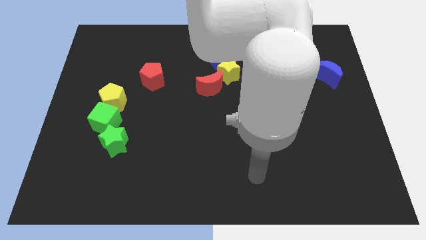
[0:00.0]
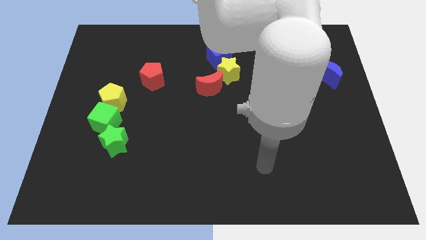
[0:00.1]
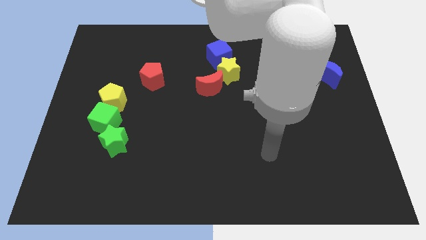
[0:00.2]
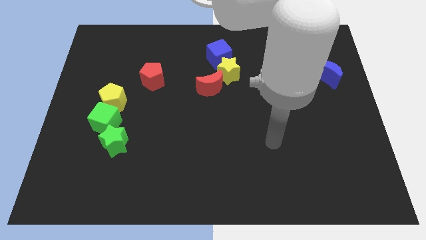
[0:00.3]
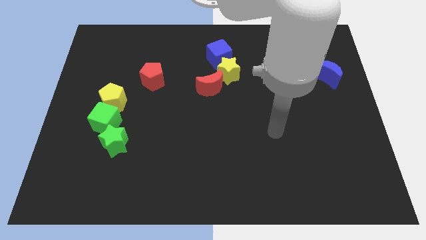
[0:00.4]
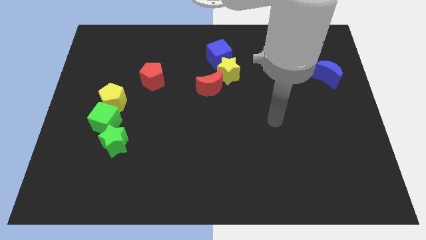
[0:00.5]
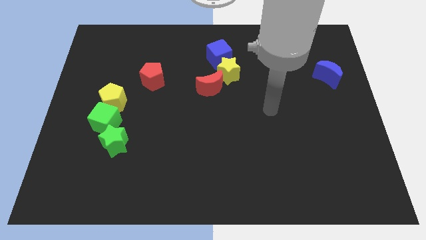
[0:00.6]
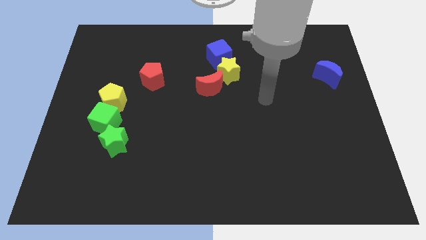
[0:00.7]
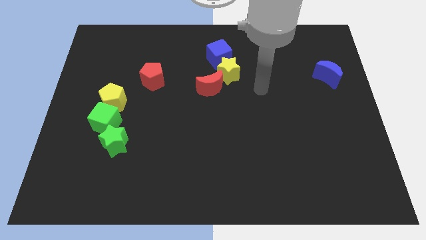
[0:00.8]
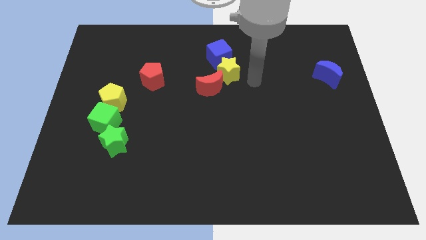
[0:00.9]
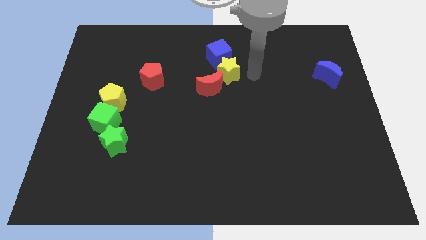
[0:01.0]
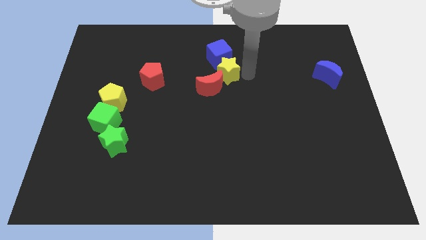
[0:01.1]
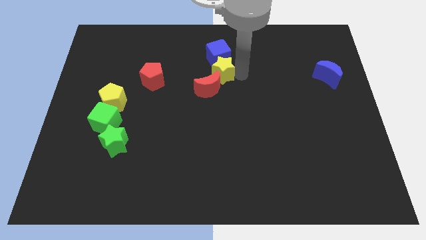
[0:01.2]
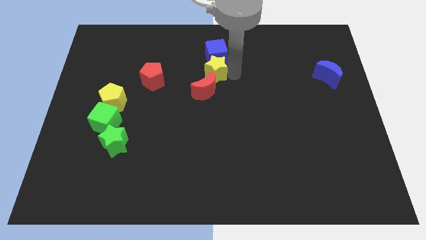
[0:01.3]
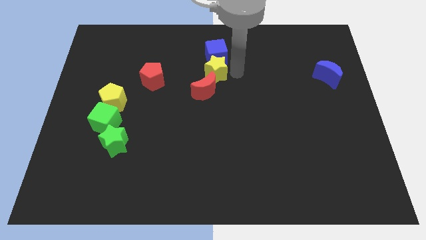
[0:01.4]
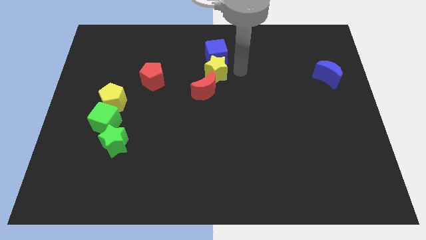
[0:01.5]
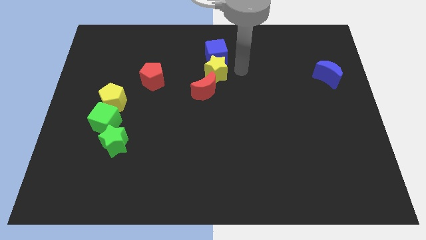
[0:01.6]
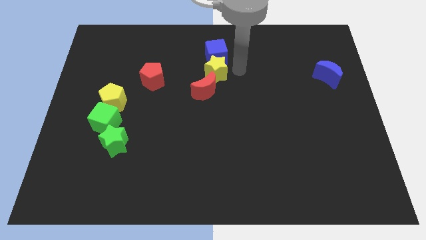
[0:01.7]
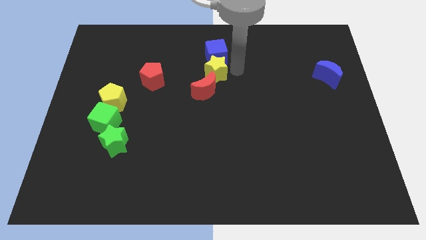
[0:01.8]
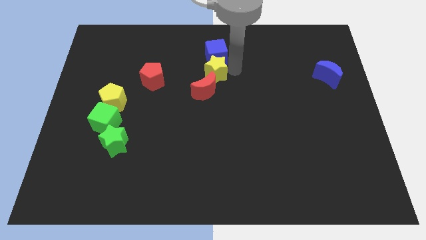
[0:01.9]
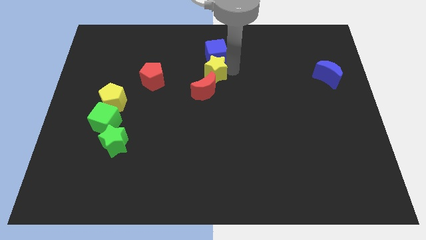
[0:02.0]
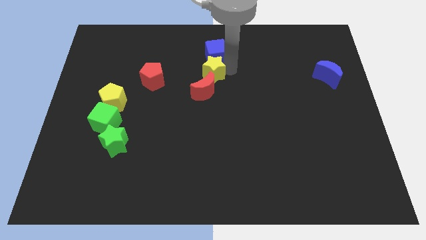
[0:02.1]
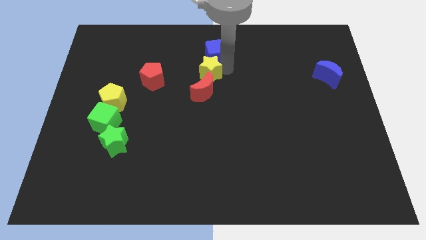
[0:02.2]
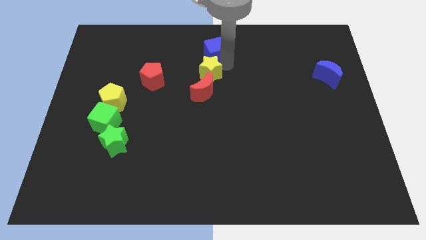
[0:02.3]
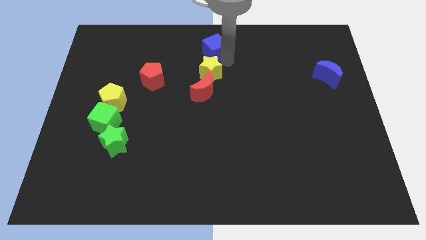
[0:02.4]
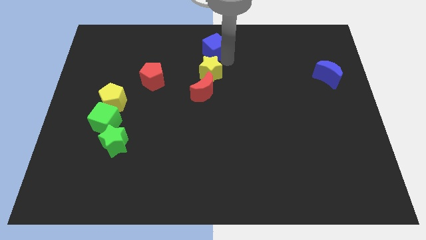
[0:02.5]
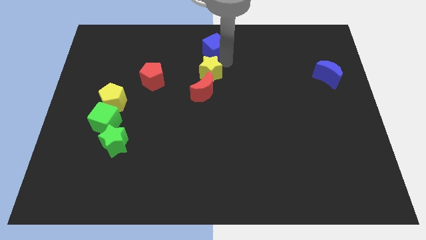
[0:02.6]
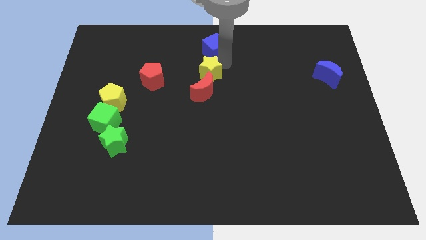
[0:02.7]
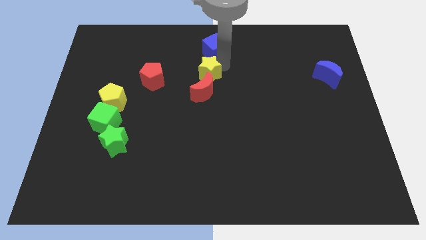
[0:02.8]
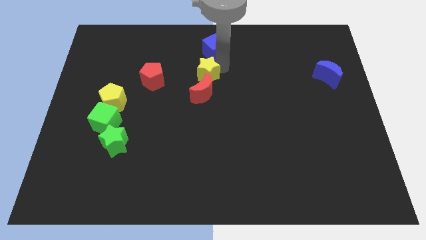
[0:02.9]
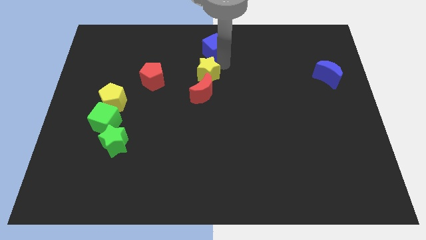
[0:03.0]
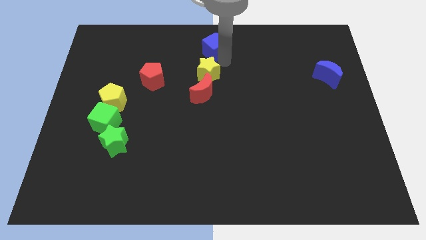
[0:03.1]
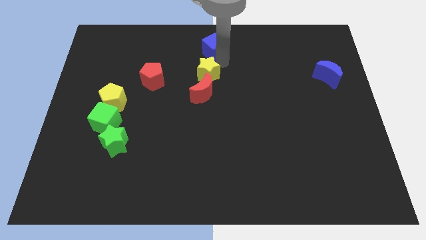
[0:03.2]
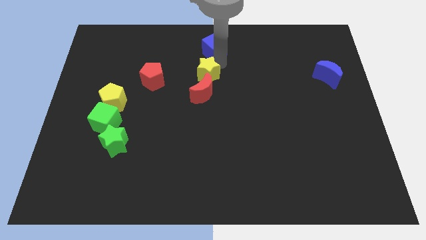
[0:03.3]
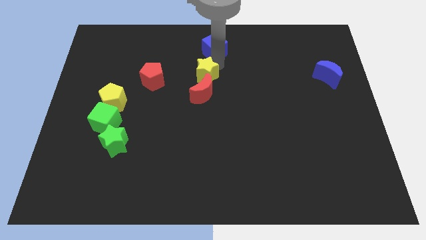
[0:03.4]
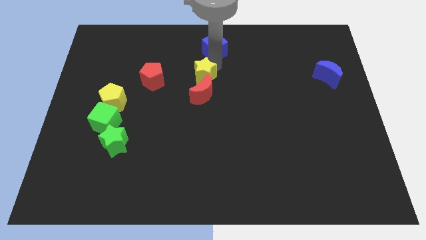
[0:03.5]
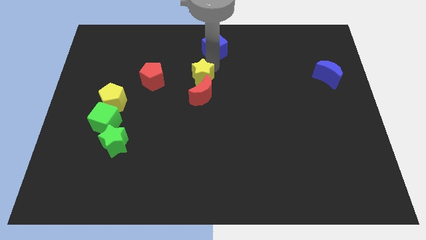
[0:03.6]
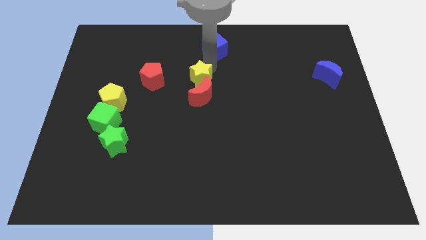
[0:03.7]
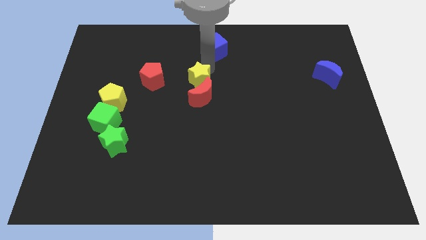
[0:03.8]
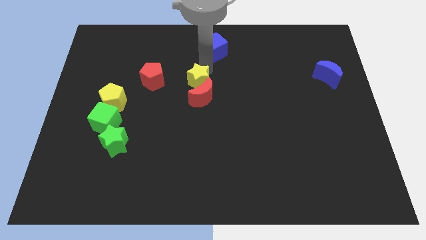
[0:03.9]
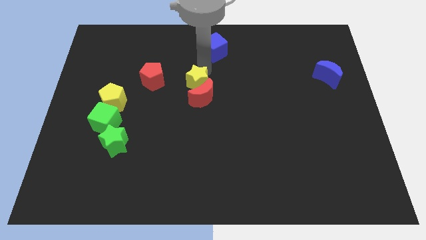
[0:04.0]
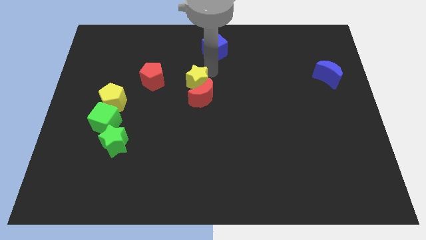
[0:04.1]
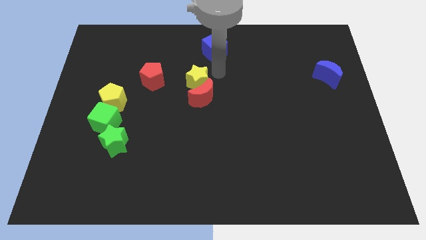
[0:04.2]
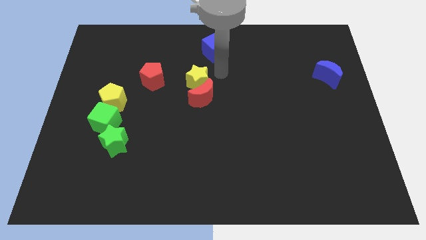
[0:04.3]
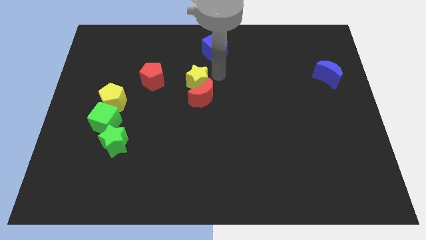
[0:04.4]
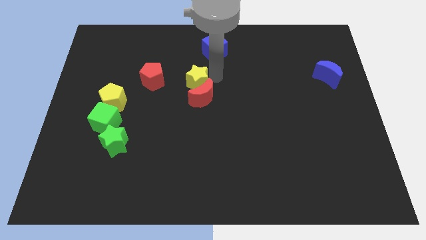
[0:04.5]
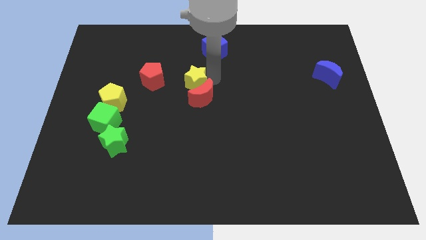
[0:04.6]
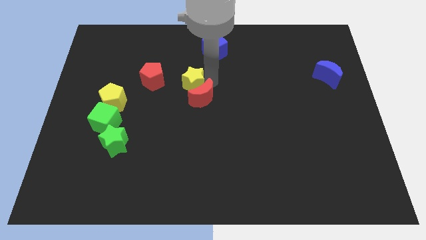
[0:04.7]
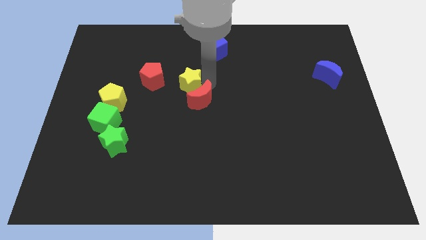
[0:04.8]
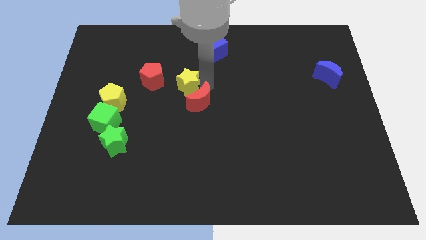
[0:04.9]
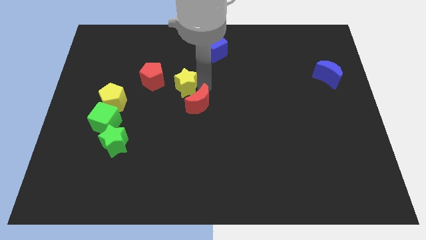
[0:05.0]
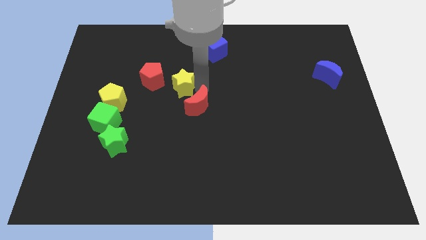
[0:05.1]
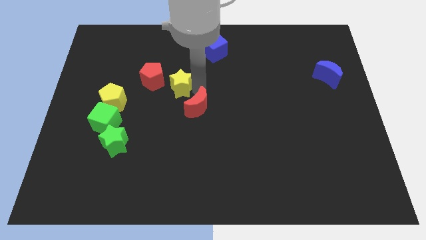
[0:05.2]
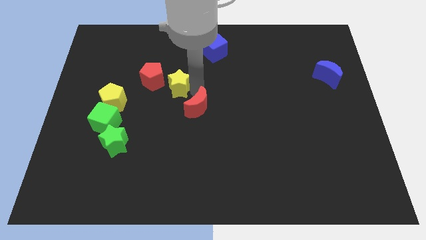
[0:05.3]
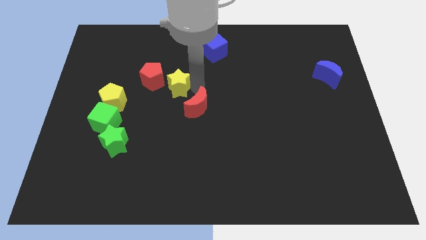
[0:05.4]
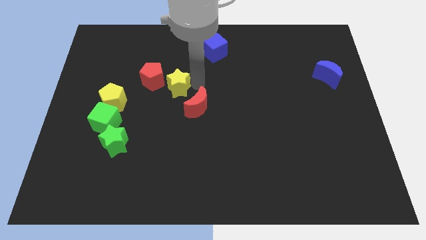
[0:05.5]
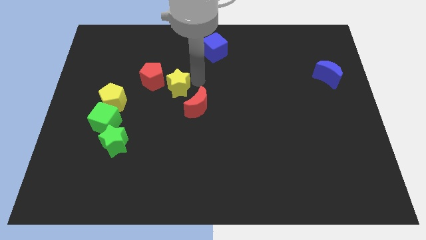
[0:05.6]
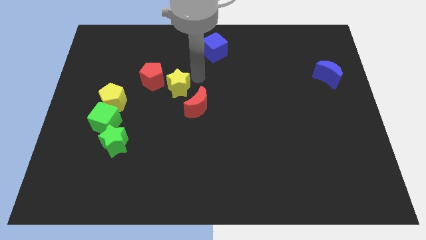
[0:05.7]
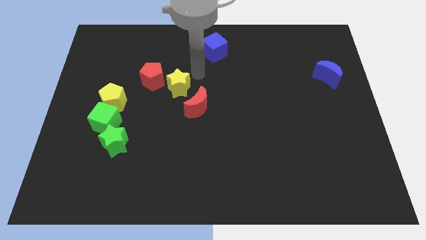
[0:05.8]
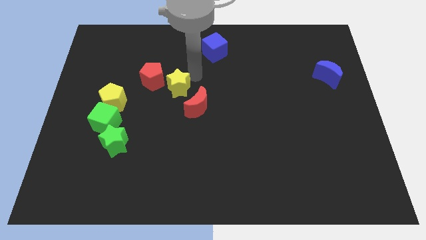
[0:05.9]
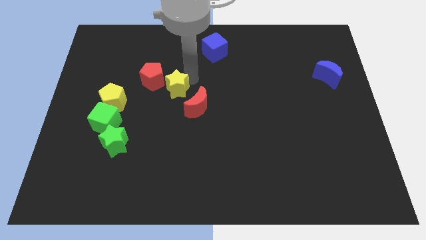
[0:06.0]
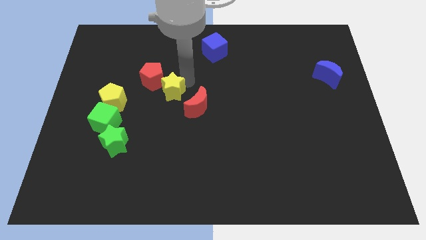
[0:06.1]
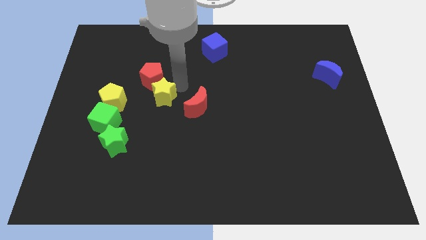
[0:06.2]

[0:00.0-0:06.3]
put the yellow star to the bottom side of the red pentagon

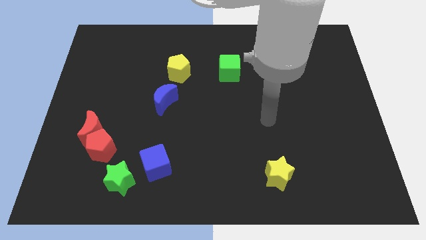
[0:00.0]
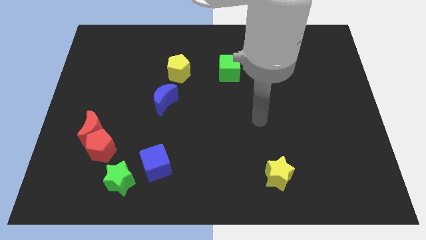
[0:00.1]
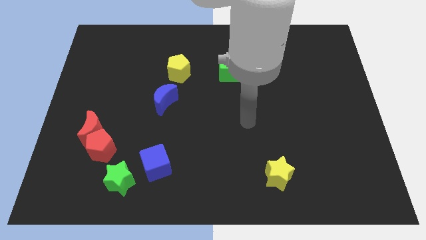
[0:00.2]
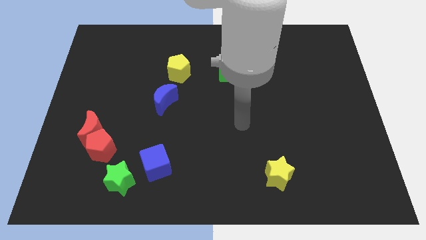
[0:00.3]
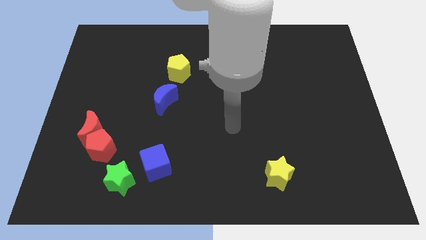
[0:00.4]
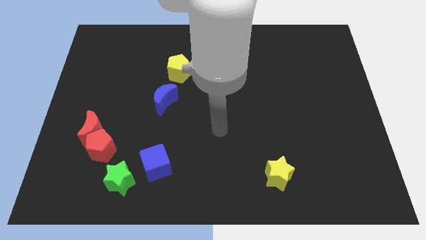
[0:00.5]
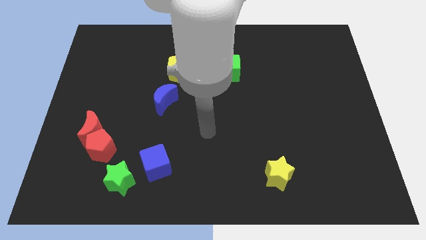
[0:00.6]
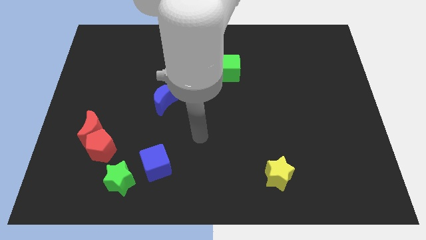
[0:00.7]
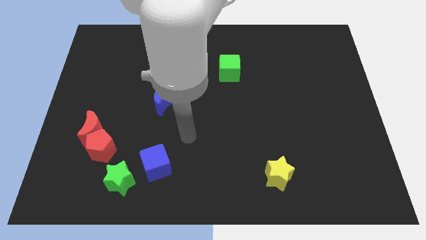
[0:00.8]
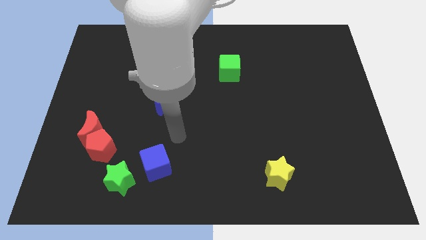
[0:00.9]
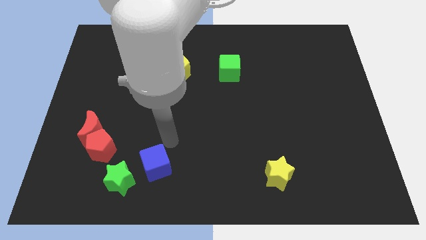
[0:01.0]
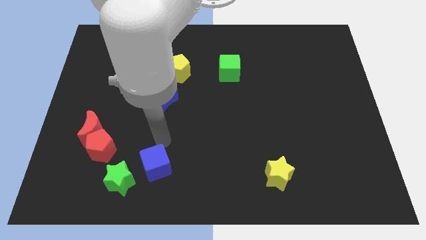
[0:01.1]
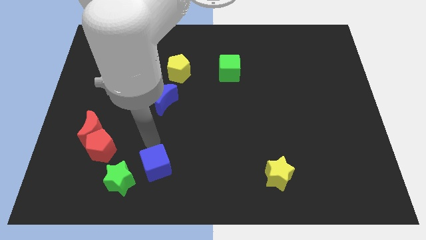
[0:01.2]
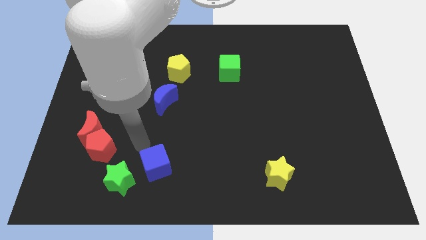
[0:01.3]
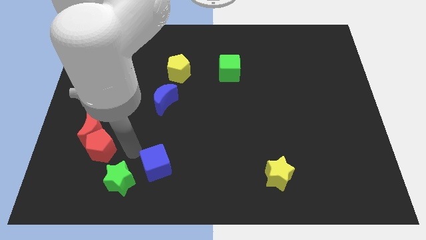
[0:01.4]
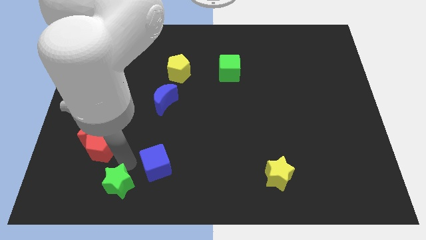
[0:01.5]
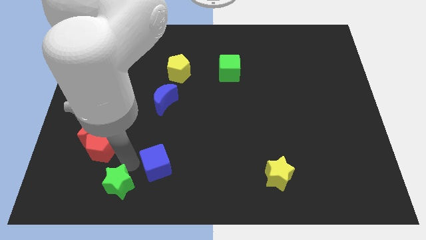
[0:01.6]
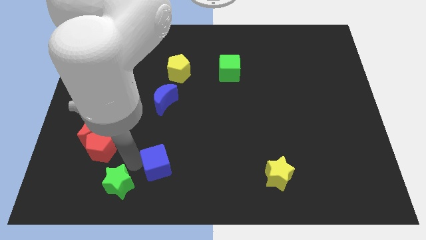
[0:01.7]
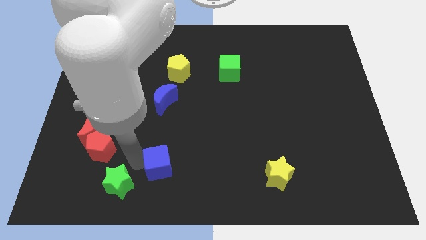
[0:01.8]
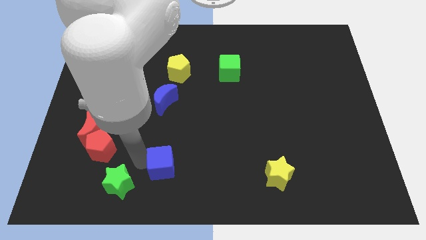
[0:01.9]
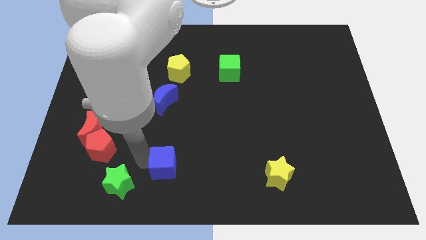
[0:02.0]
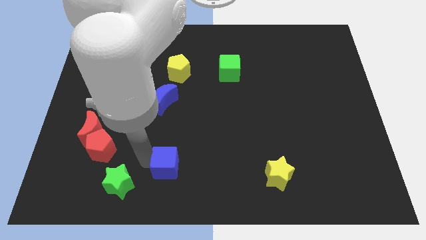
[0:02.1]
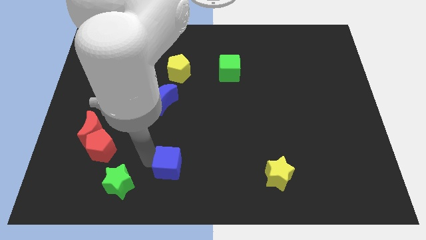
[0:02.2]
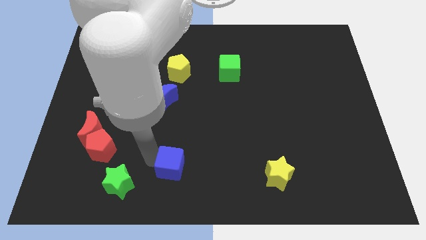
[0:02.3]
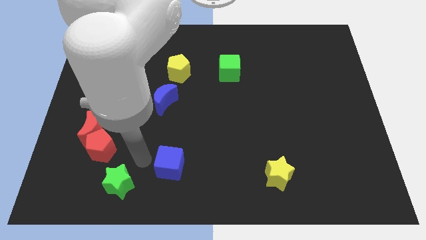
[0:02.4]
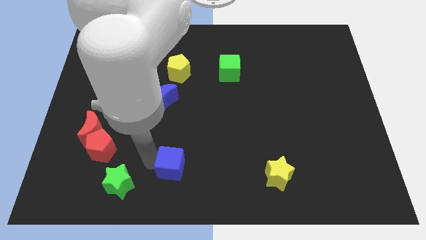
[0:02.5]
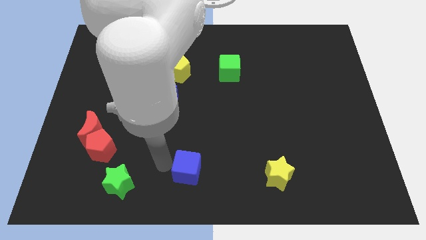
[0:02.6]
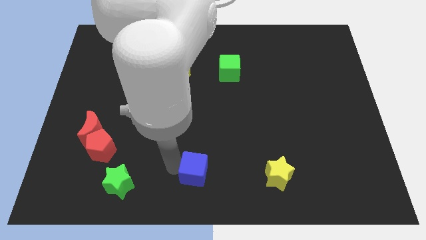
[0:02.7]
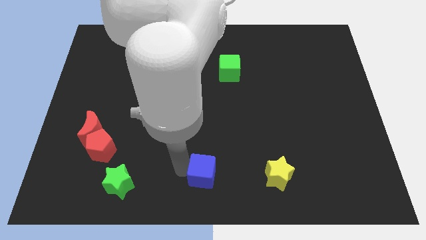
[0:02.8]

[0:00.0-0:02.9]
push the blue cube left of the yellow star
